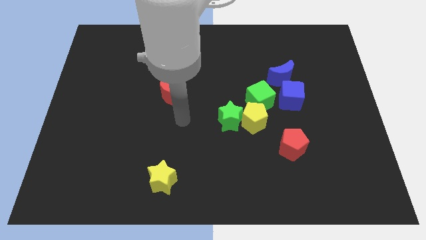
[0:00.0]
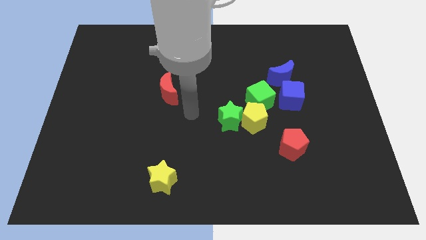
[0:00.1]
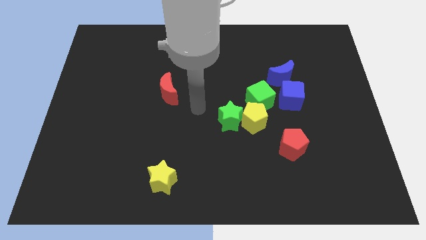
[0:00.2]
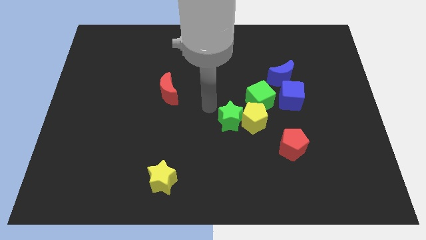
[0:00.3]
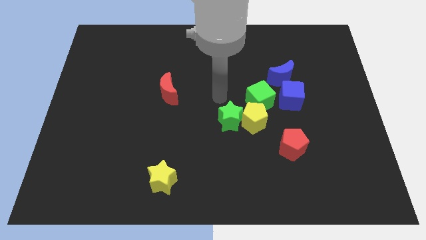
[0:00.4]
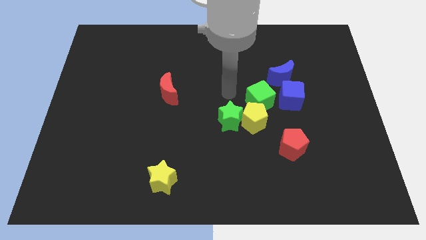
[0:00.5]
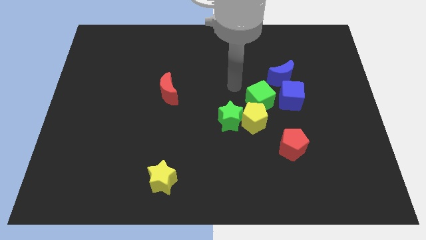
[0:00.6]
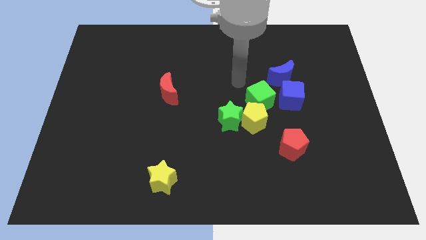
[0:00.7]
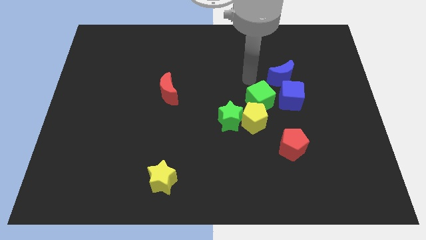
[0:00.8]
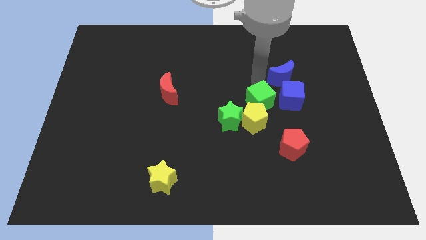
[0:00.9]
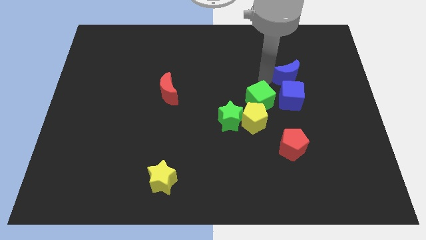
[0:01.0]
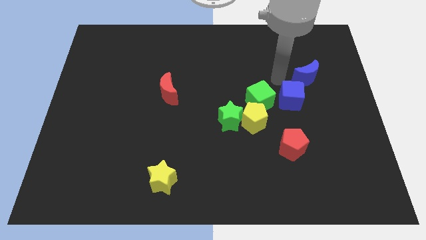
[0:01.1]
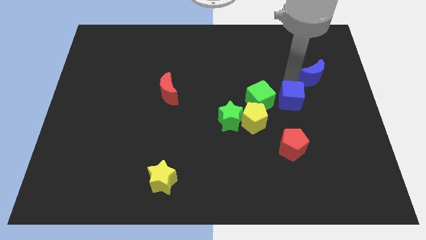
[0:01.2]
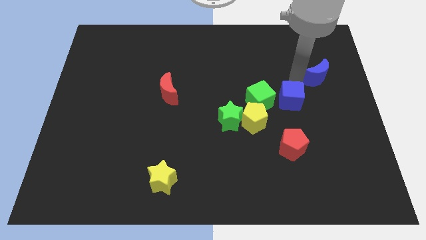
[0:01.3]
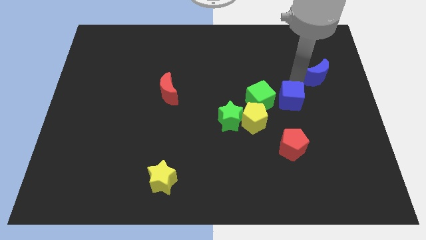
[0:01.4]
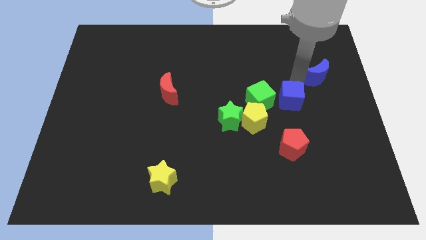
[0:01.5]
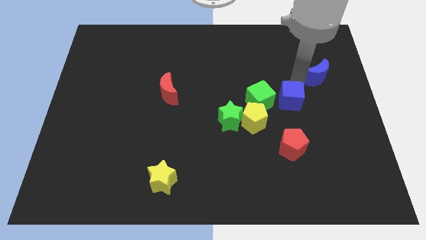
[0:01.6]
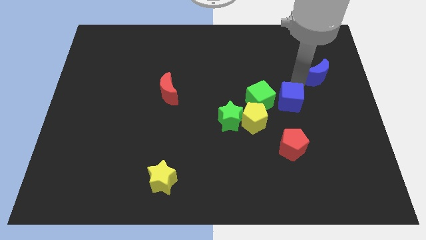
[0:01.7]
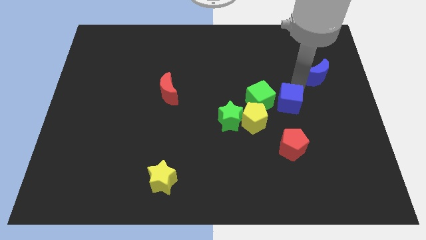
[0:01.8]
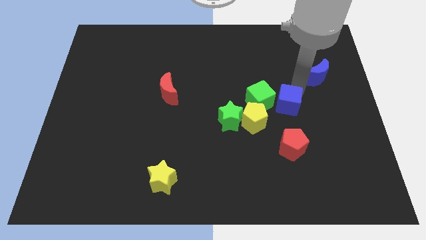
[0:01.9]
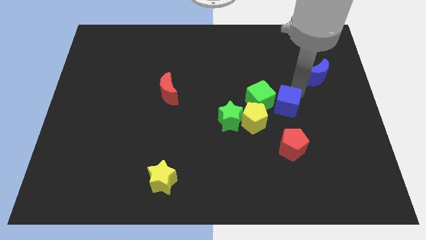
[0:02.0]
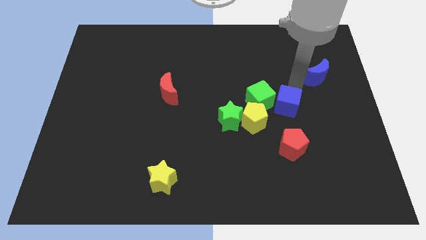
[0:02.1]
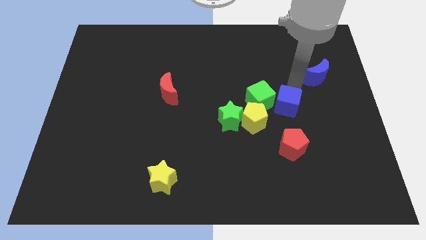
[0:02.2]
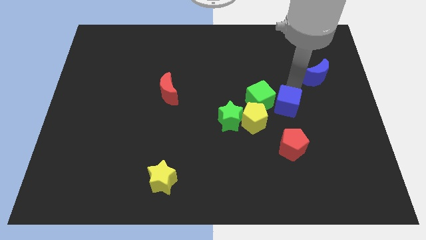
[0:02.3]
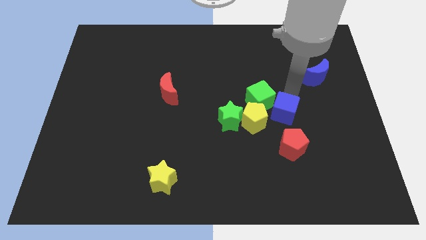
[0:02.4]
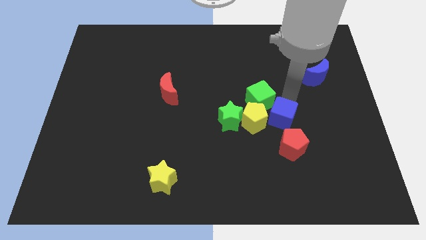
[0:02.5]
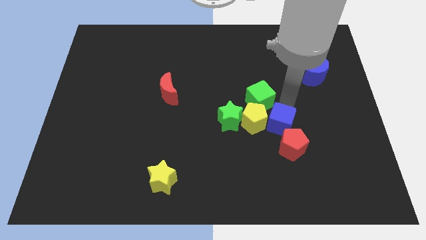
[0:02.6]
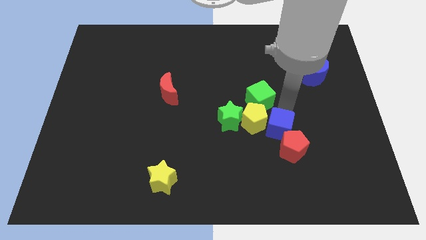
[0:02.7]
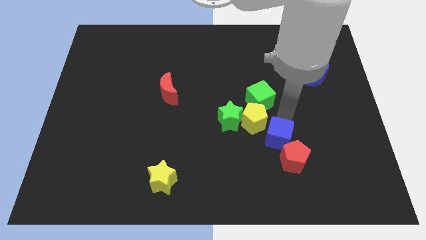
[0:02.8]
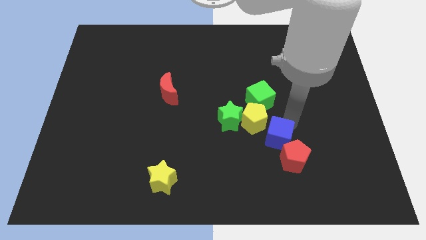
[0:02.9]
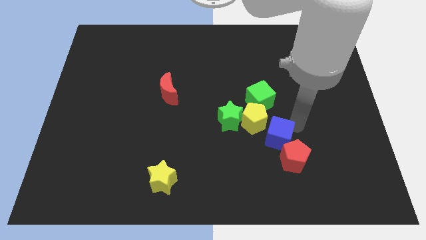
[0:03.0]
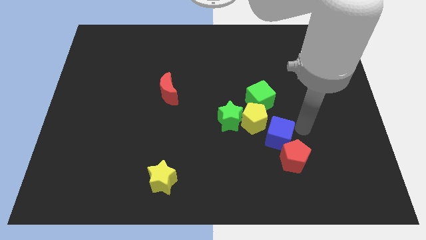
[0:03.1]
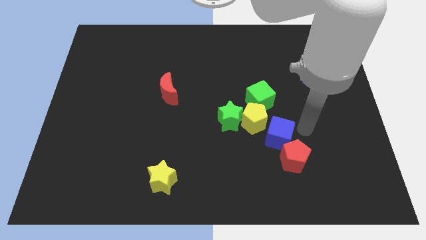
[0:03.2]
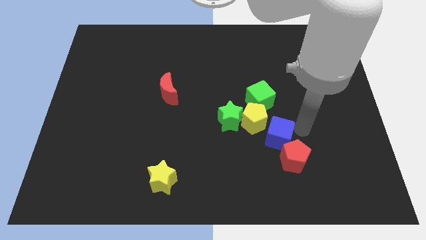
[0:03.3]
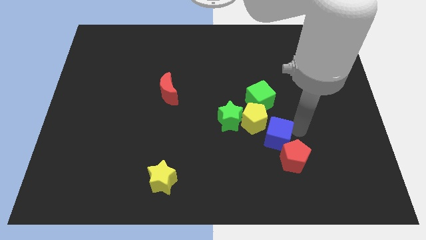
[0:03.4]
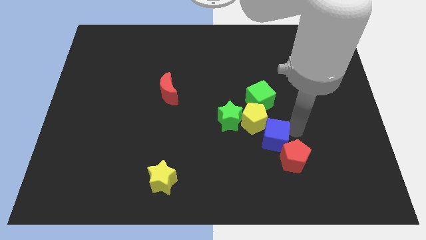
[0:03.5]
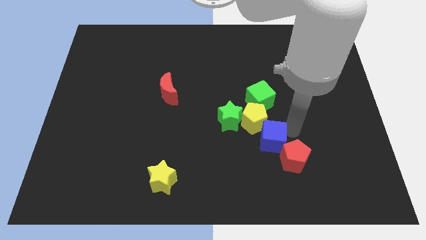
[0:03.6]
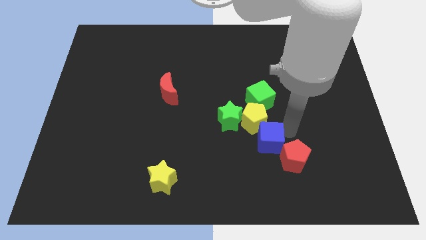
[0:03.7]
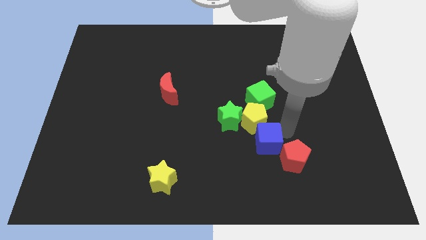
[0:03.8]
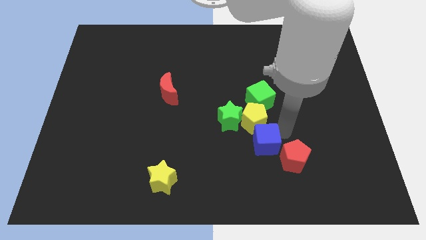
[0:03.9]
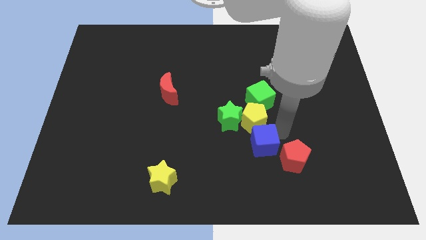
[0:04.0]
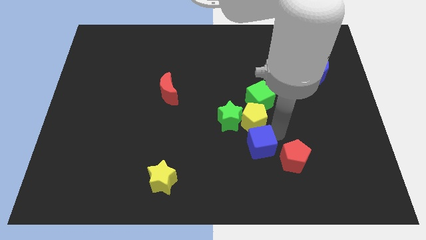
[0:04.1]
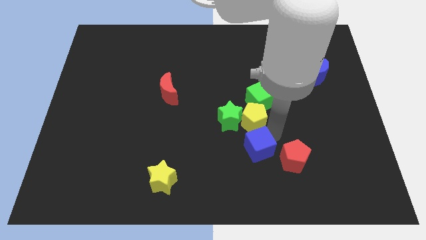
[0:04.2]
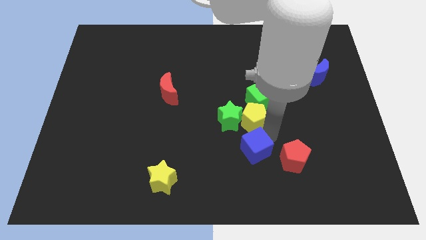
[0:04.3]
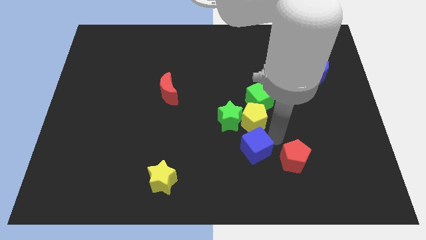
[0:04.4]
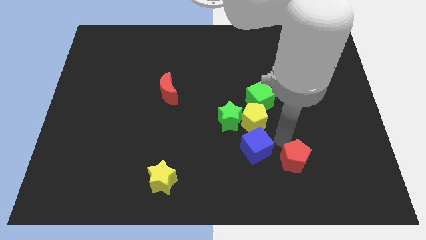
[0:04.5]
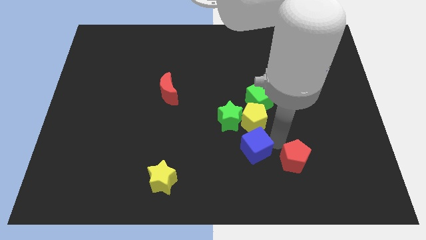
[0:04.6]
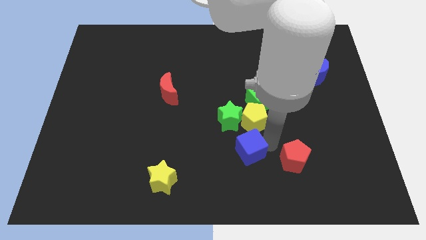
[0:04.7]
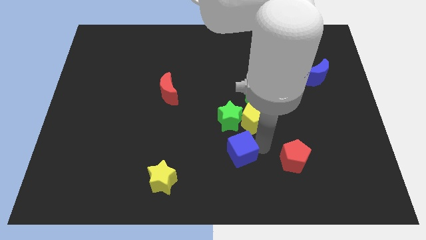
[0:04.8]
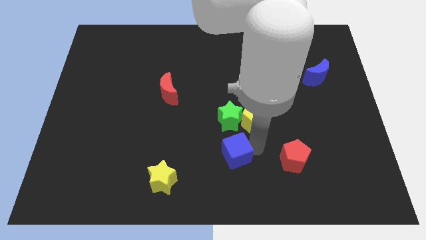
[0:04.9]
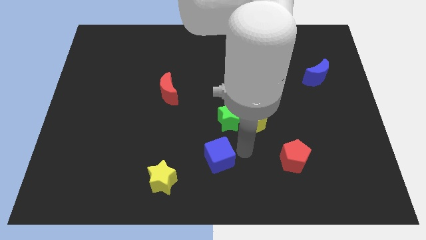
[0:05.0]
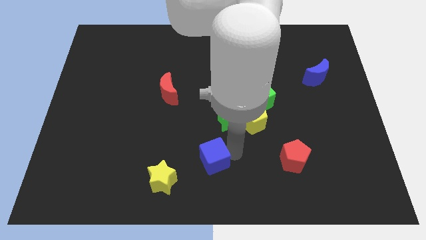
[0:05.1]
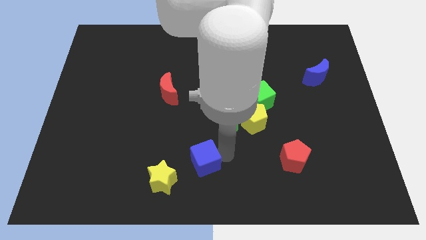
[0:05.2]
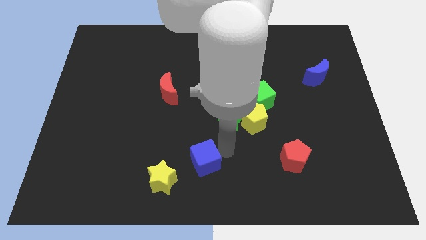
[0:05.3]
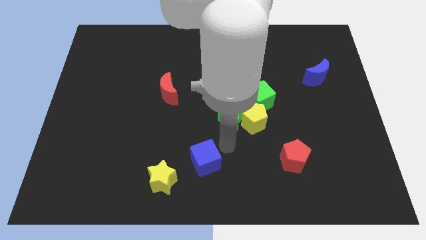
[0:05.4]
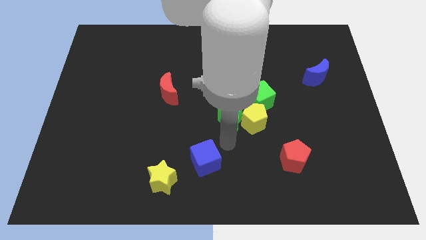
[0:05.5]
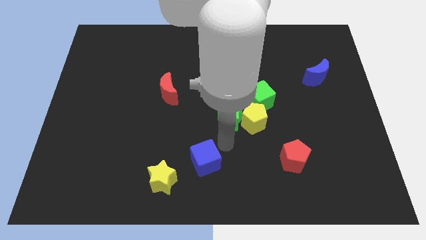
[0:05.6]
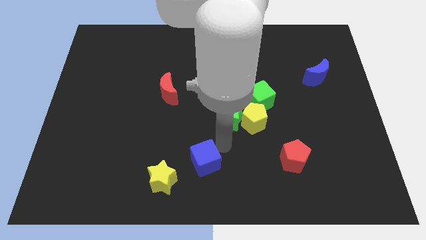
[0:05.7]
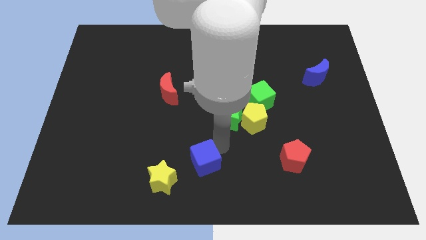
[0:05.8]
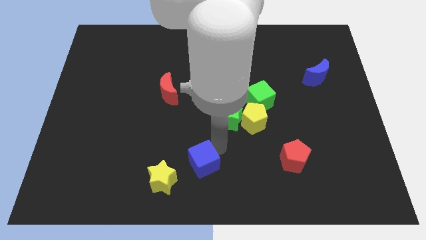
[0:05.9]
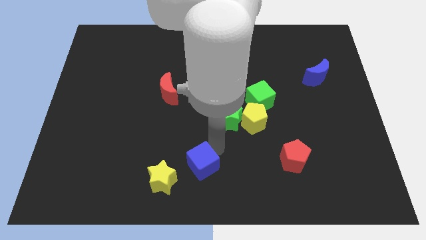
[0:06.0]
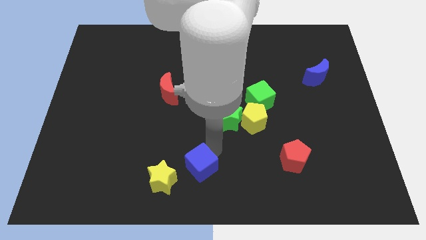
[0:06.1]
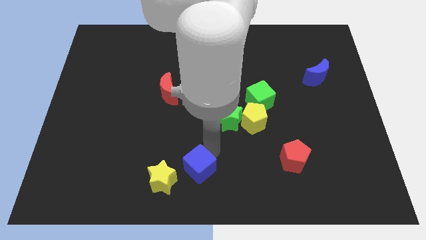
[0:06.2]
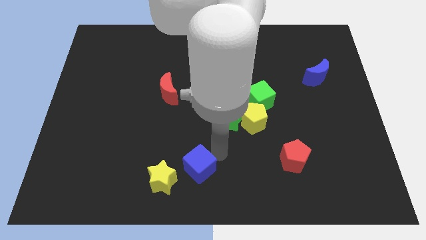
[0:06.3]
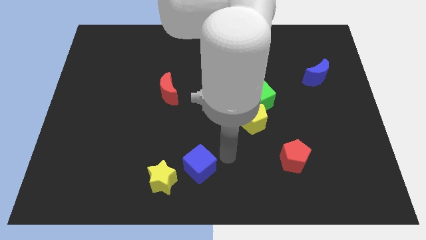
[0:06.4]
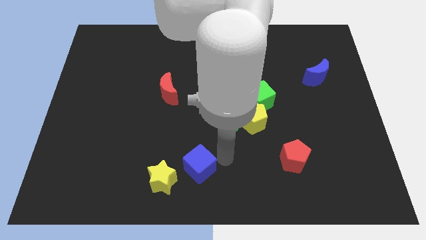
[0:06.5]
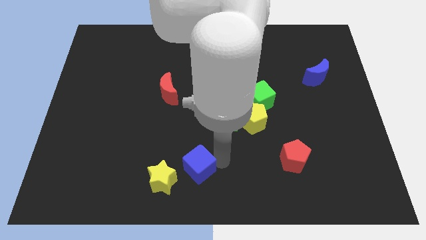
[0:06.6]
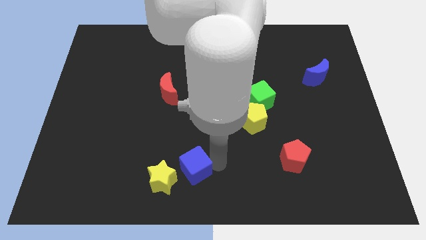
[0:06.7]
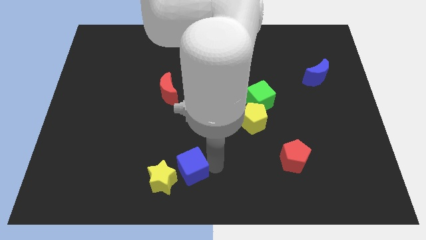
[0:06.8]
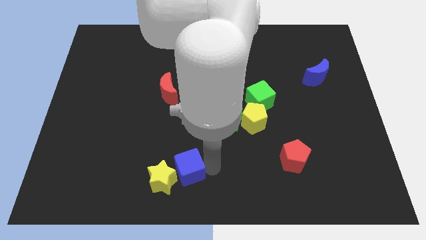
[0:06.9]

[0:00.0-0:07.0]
put the blue cube towards the yellow star
